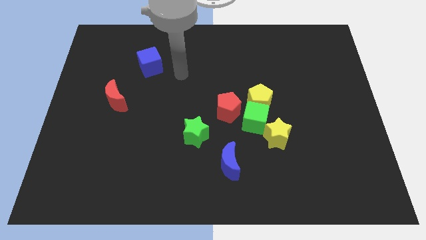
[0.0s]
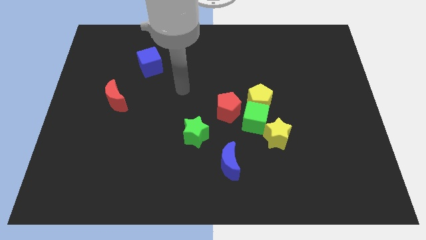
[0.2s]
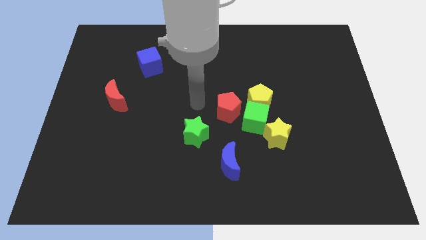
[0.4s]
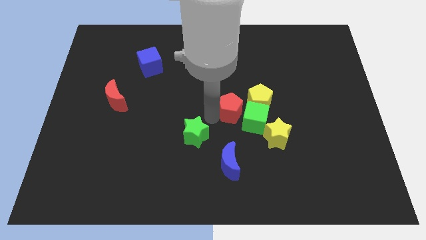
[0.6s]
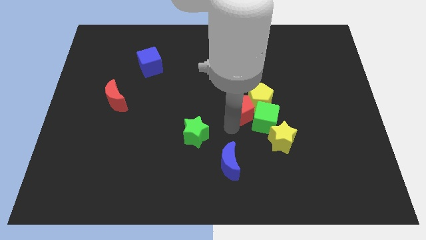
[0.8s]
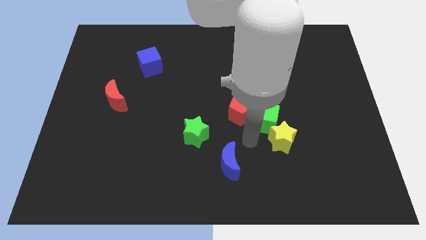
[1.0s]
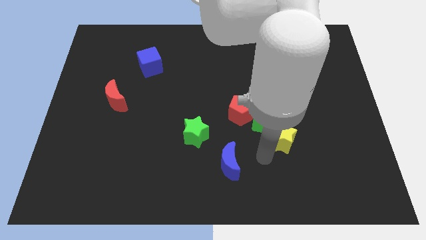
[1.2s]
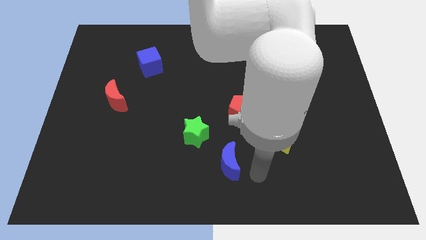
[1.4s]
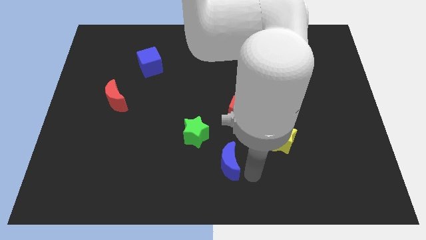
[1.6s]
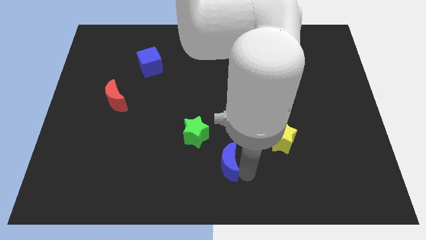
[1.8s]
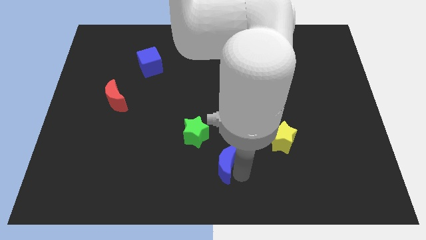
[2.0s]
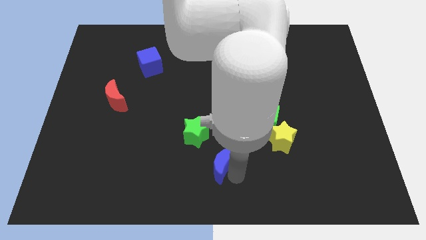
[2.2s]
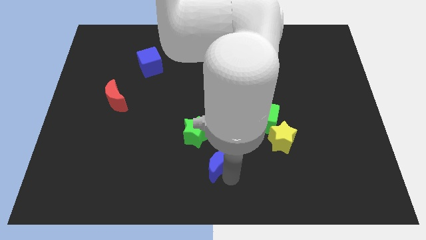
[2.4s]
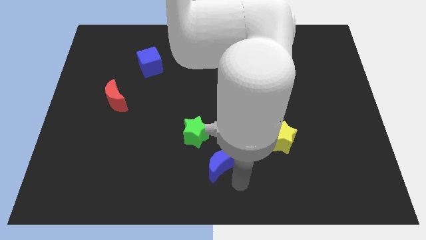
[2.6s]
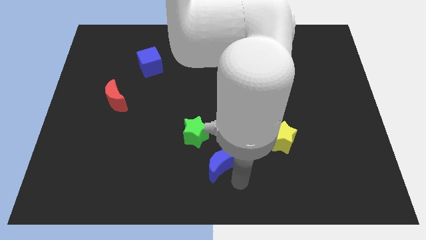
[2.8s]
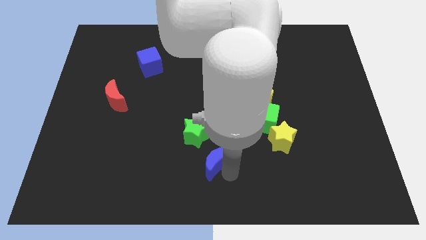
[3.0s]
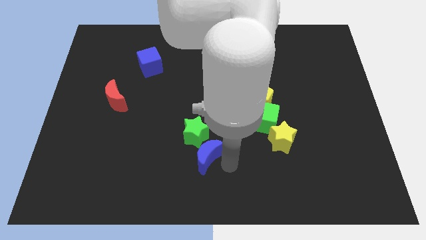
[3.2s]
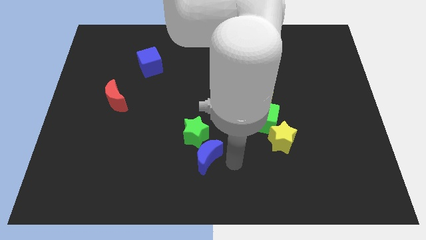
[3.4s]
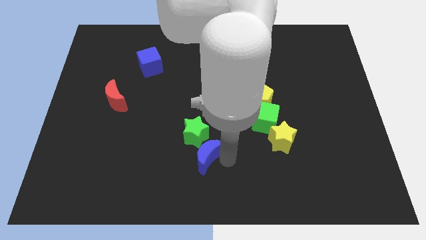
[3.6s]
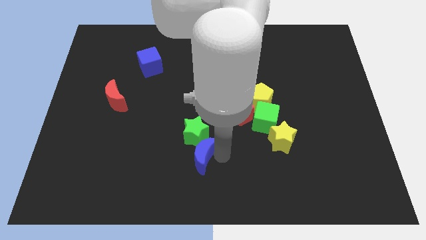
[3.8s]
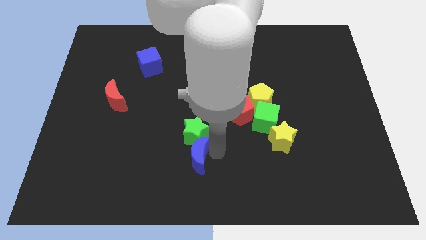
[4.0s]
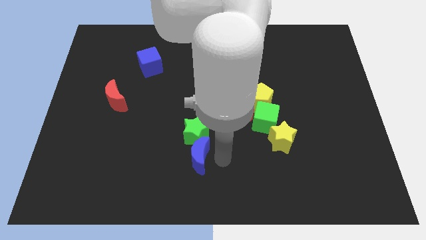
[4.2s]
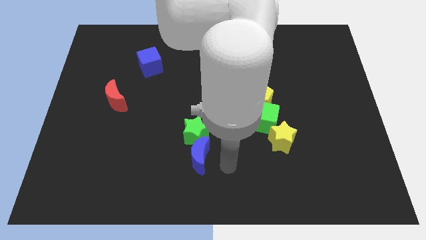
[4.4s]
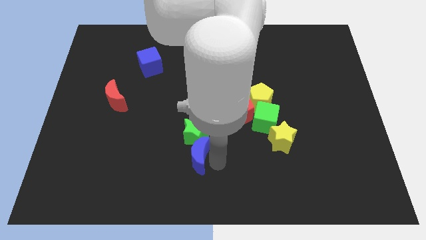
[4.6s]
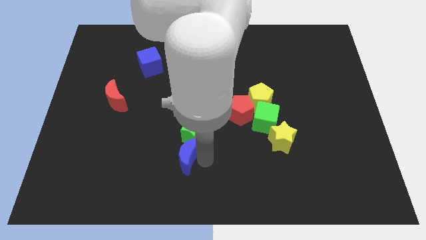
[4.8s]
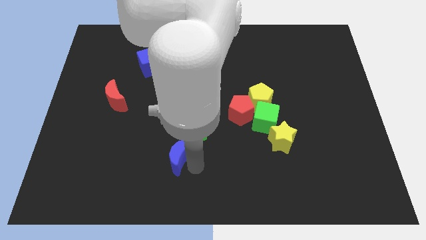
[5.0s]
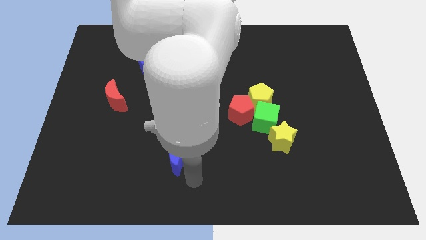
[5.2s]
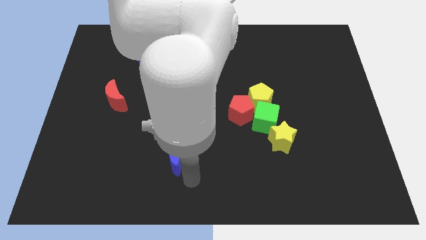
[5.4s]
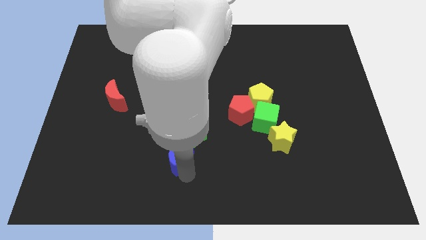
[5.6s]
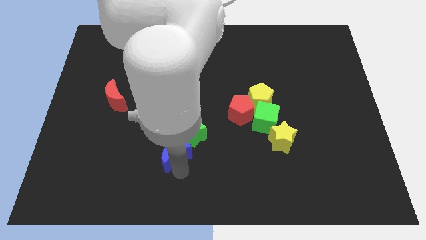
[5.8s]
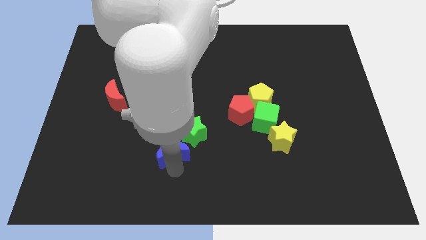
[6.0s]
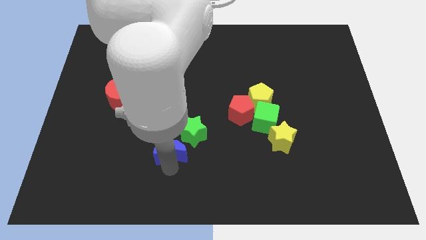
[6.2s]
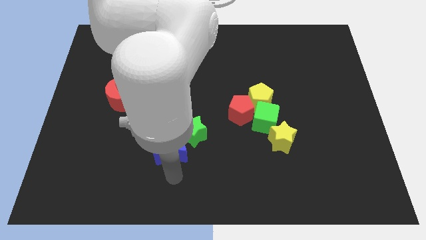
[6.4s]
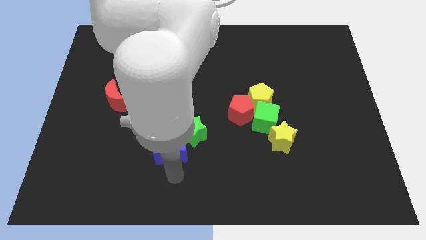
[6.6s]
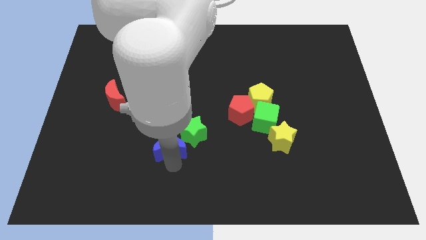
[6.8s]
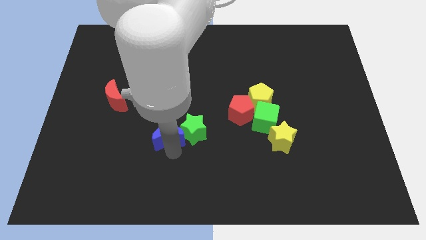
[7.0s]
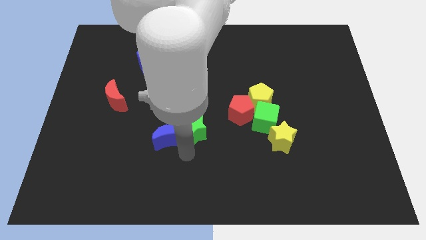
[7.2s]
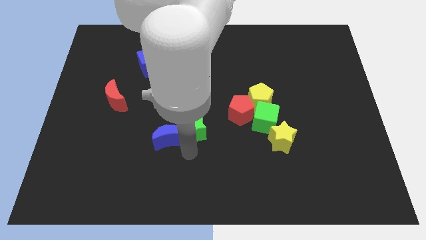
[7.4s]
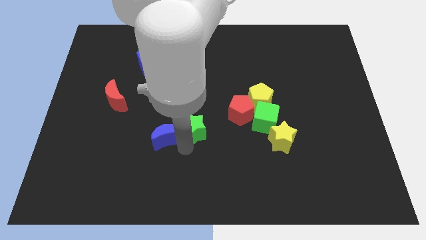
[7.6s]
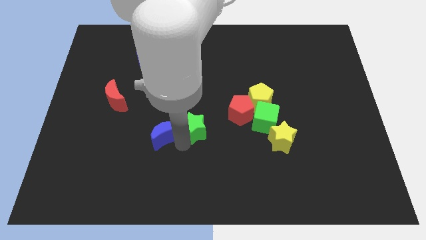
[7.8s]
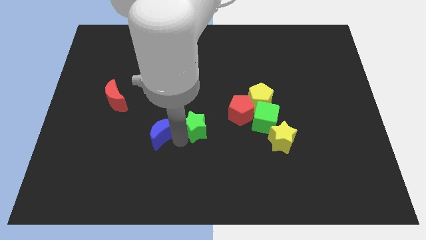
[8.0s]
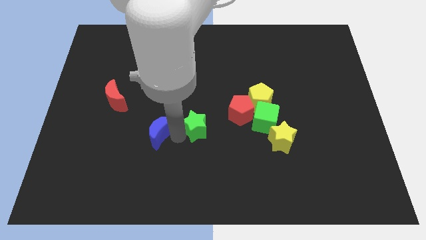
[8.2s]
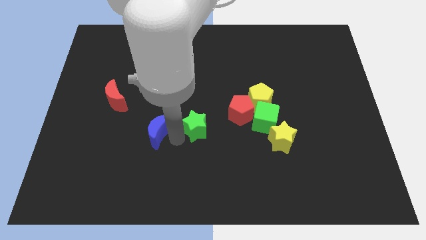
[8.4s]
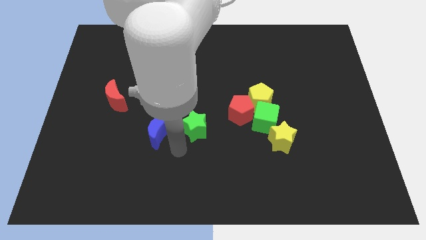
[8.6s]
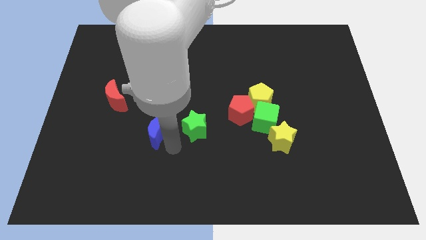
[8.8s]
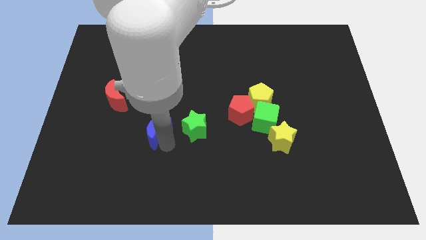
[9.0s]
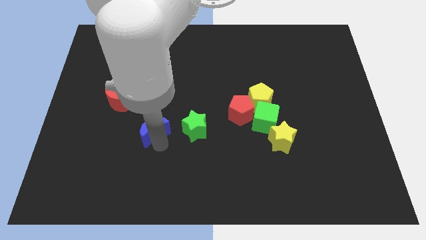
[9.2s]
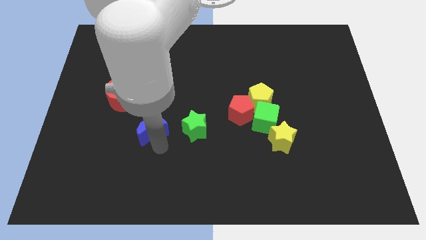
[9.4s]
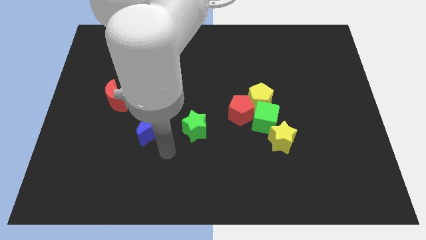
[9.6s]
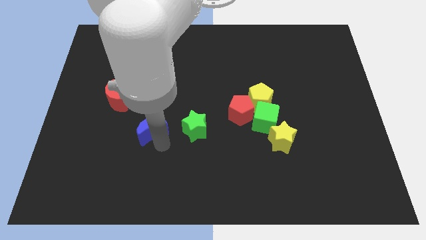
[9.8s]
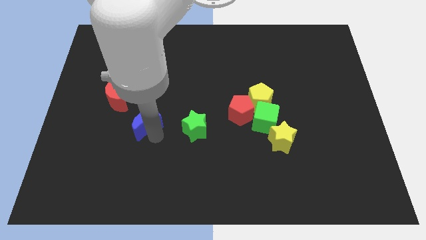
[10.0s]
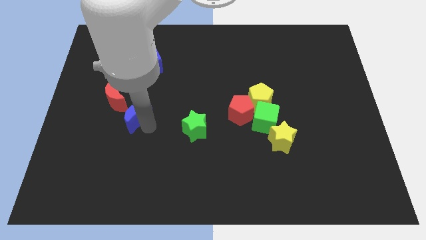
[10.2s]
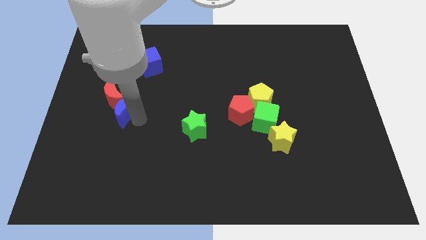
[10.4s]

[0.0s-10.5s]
push the blue moon towards the red moon

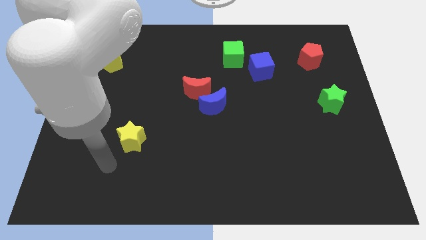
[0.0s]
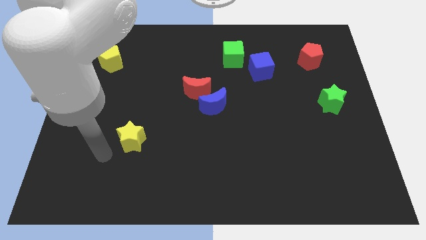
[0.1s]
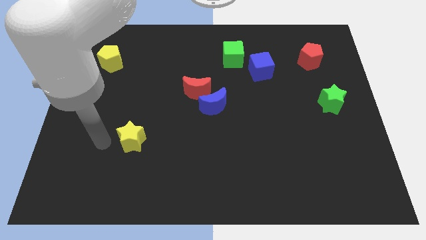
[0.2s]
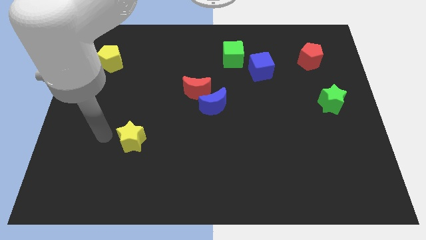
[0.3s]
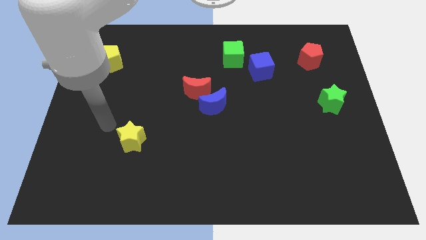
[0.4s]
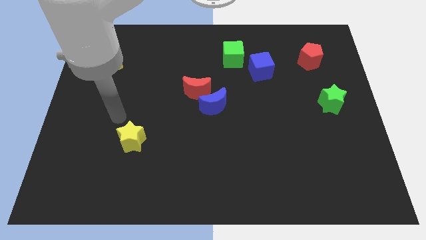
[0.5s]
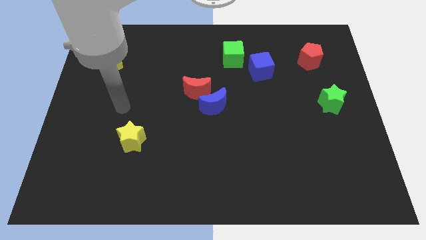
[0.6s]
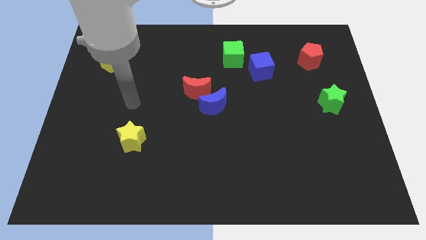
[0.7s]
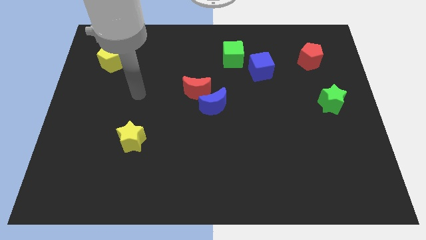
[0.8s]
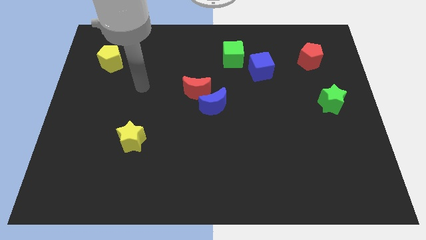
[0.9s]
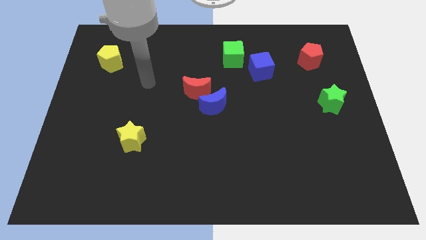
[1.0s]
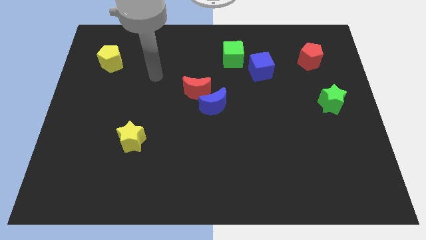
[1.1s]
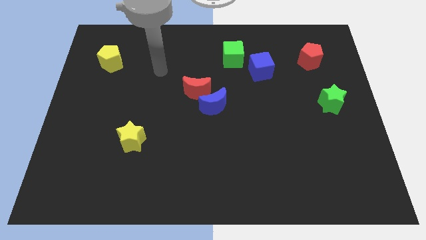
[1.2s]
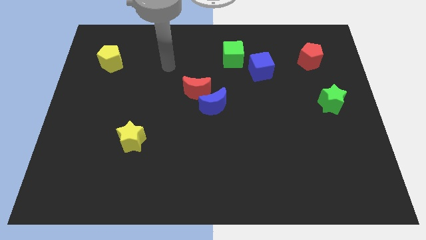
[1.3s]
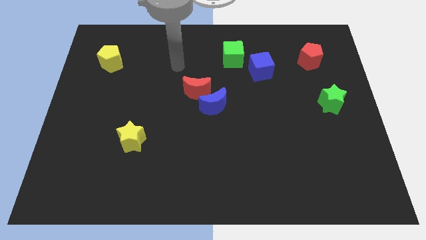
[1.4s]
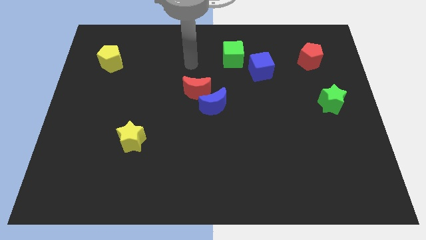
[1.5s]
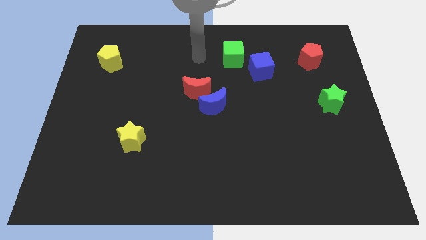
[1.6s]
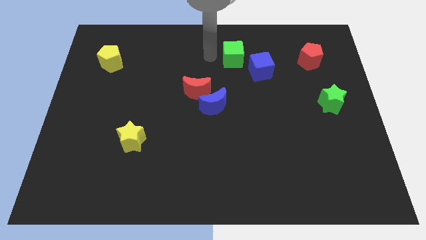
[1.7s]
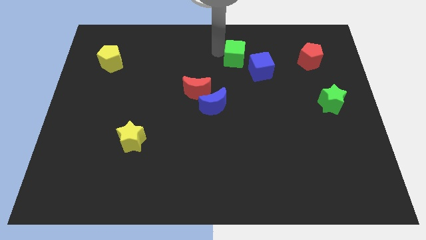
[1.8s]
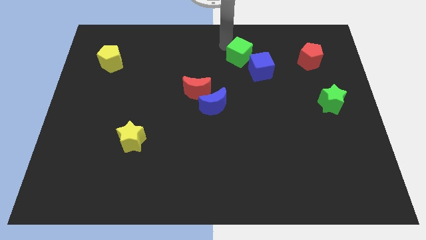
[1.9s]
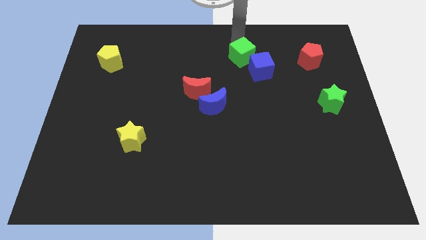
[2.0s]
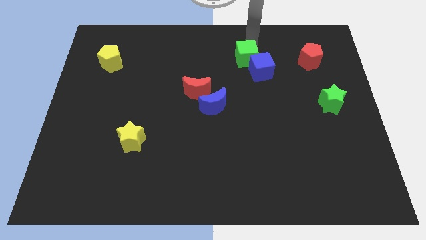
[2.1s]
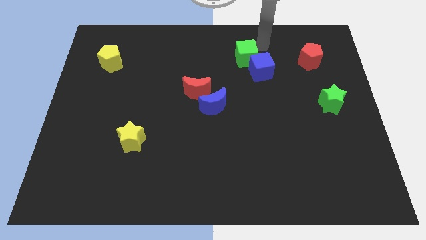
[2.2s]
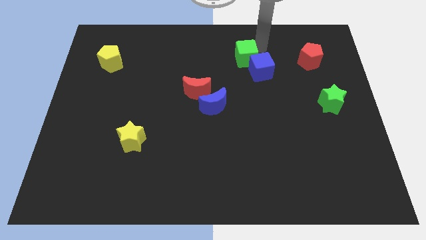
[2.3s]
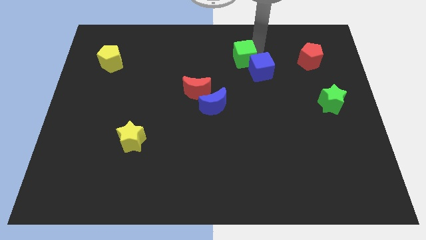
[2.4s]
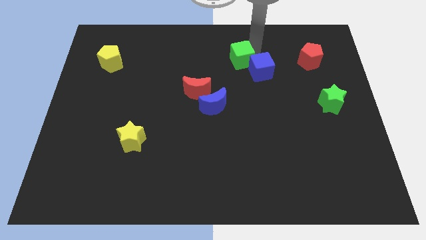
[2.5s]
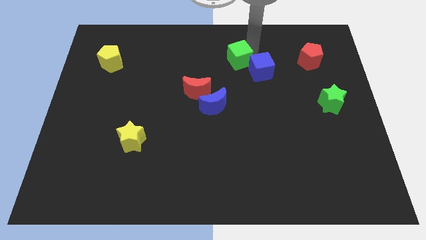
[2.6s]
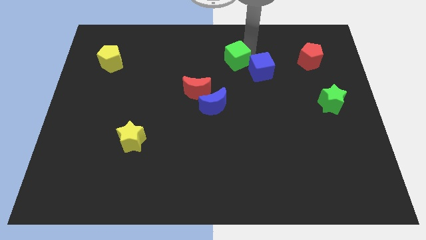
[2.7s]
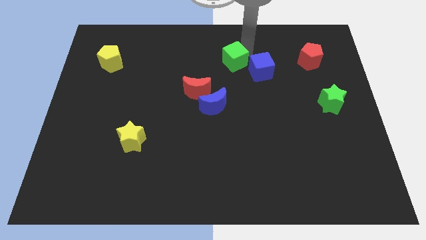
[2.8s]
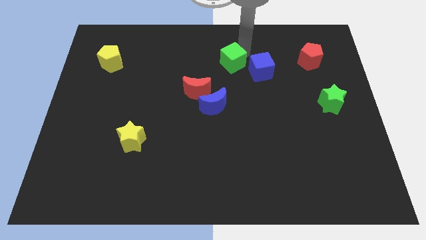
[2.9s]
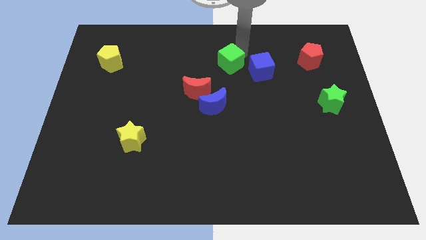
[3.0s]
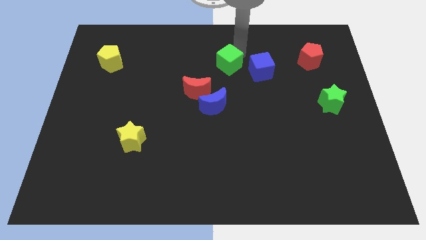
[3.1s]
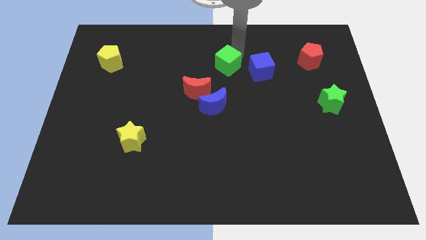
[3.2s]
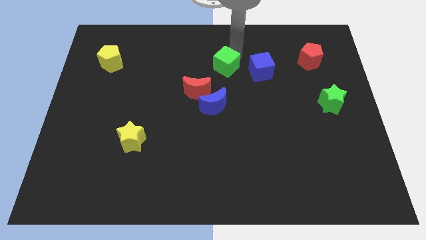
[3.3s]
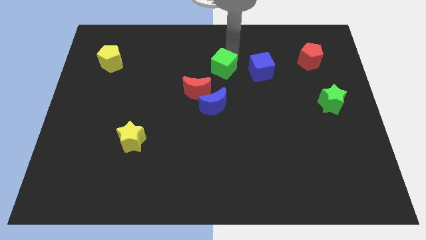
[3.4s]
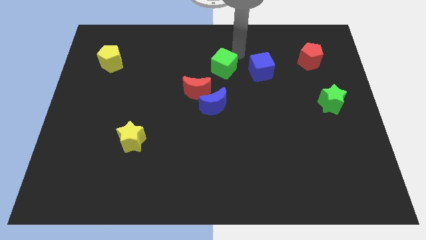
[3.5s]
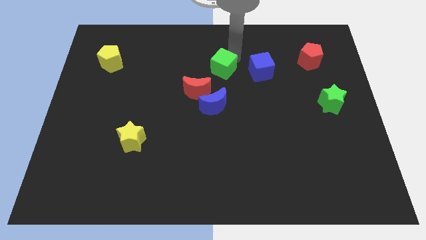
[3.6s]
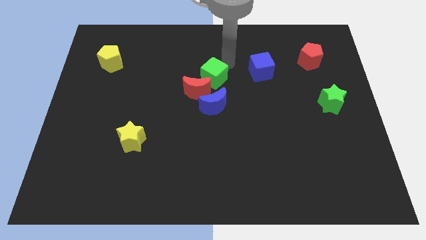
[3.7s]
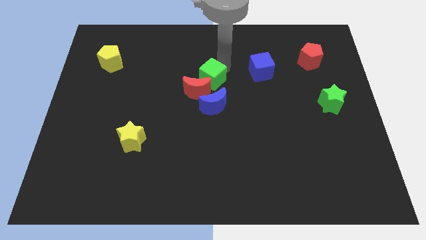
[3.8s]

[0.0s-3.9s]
move the green cube to the red moon
